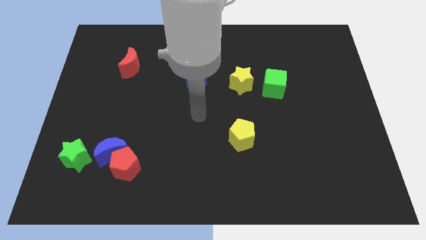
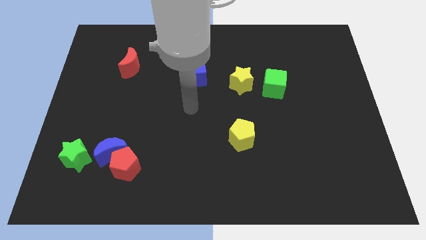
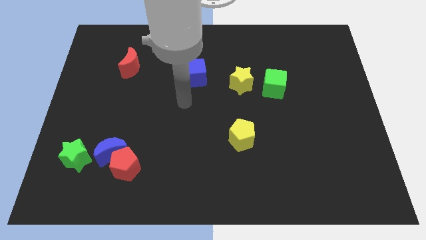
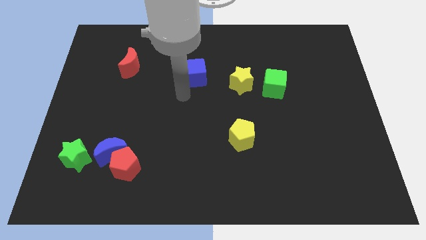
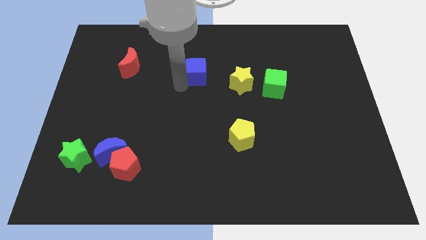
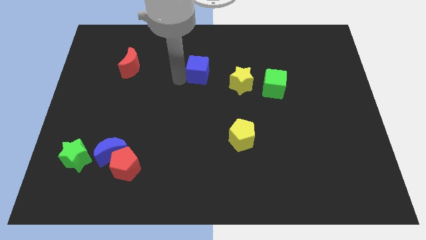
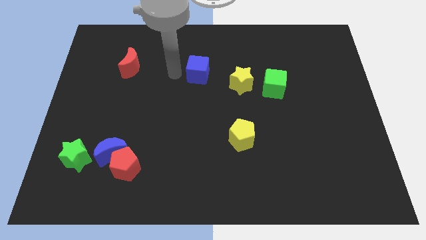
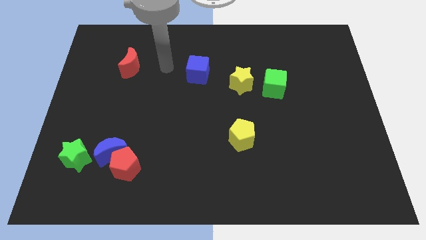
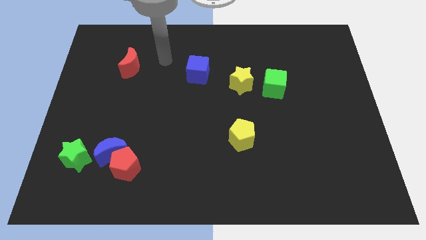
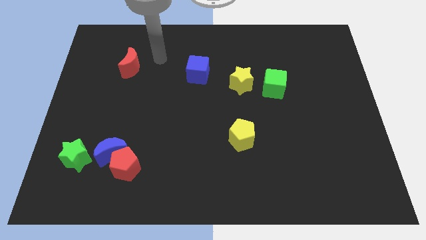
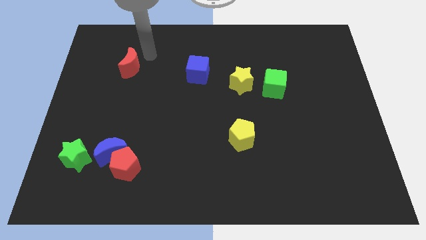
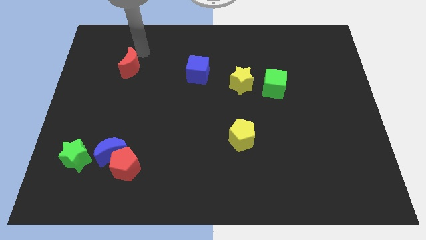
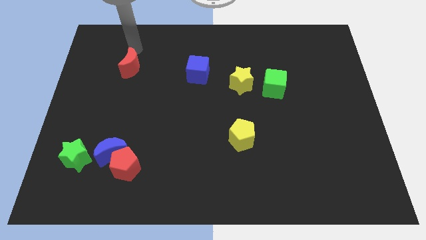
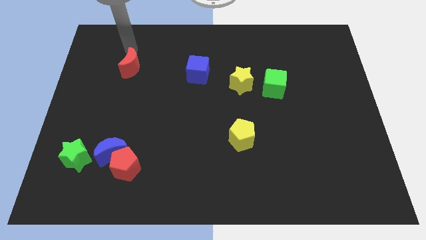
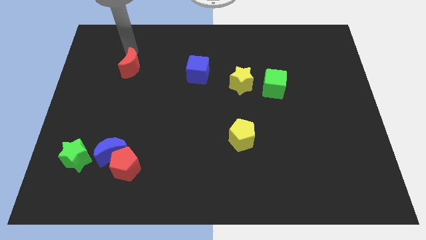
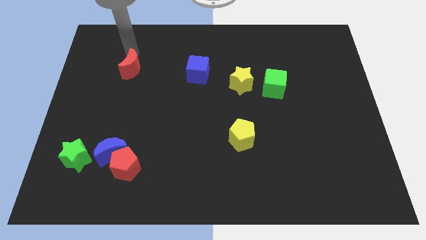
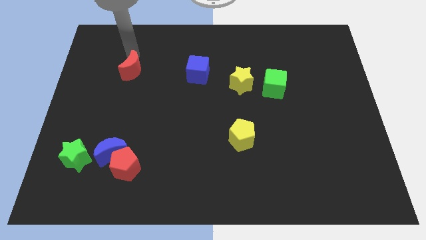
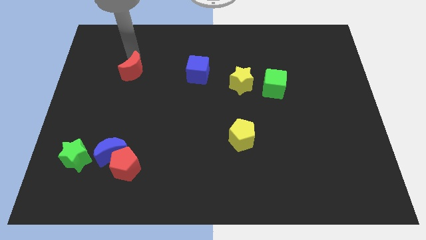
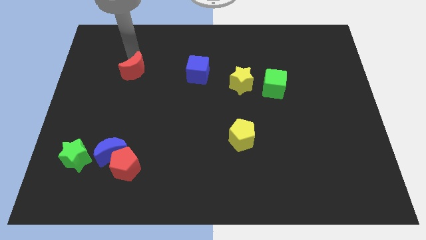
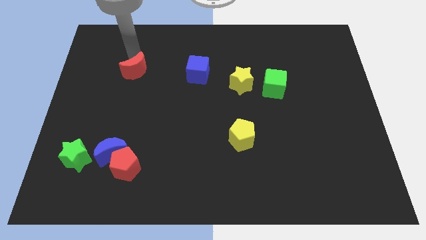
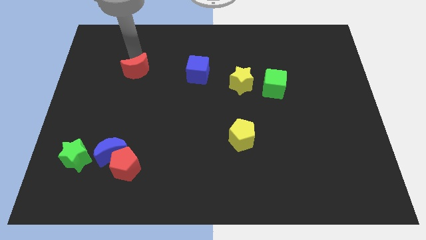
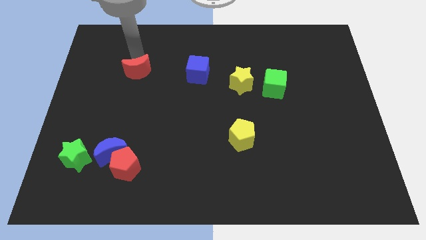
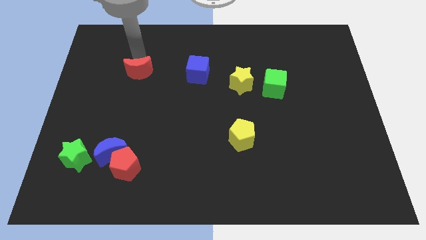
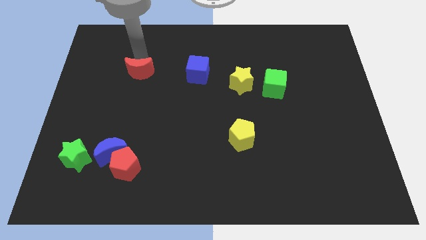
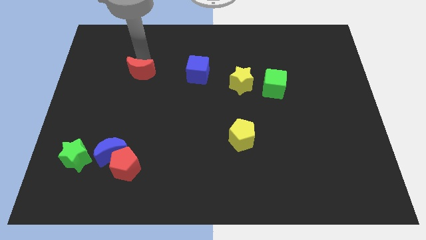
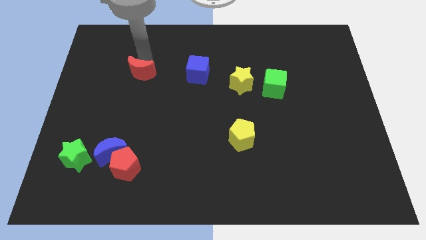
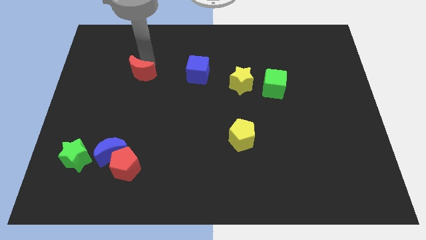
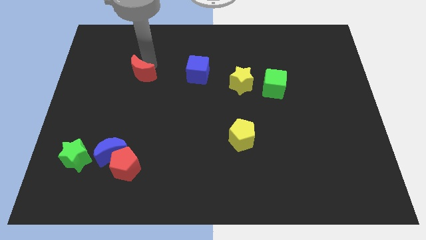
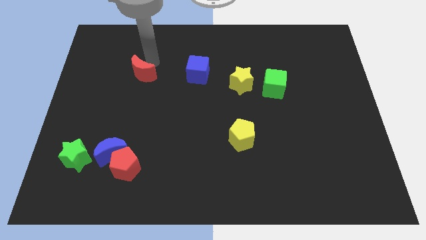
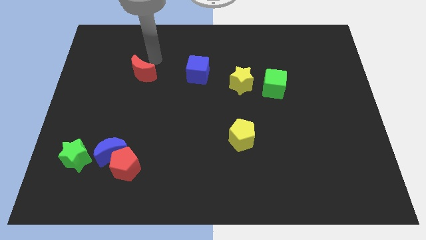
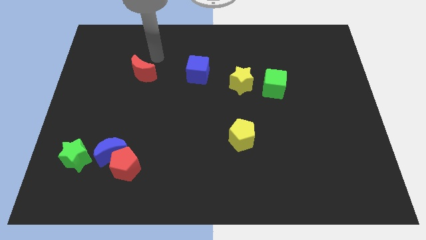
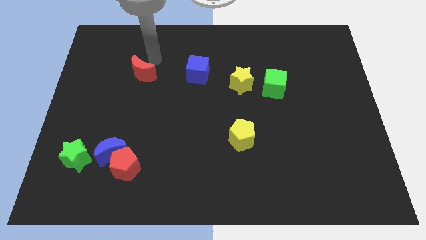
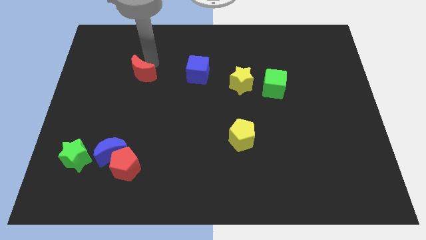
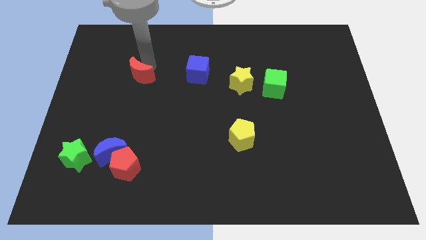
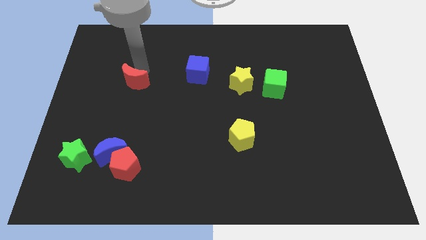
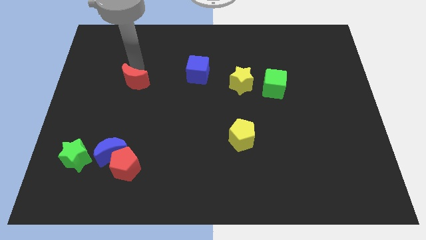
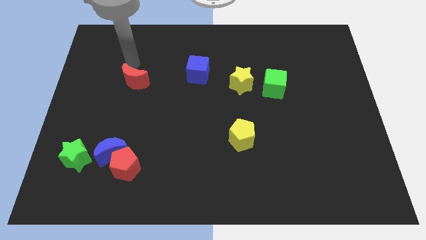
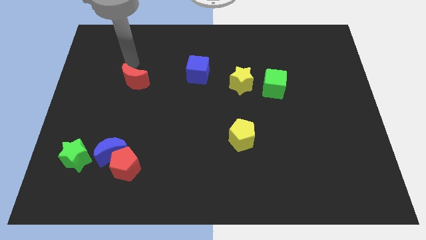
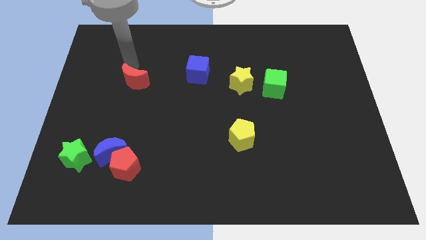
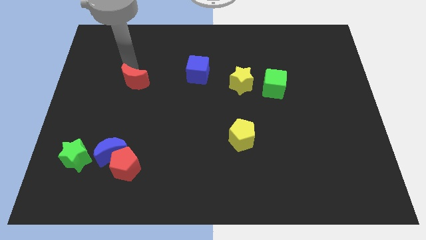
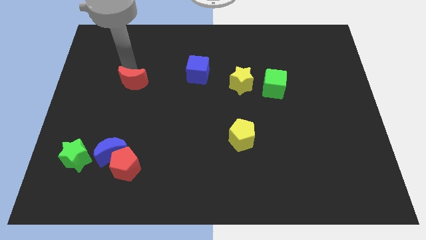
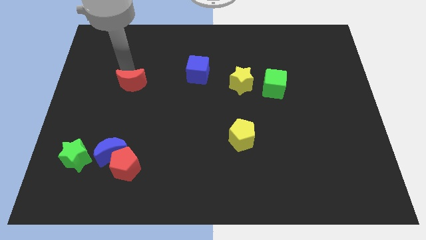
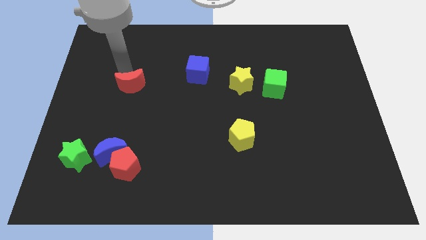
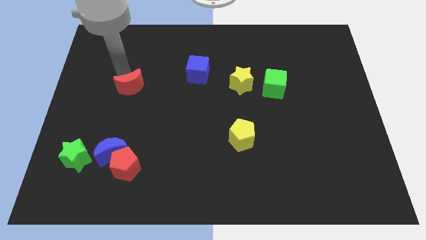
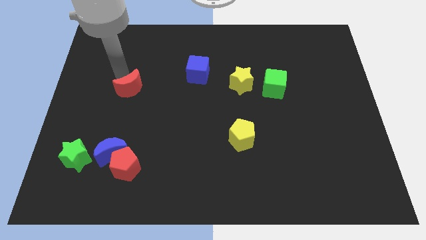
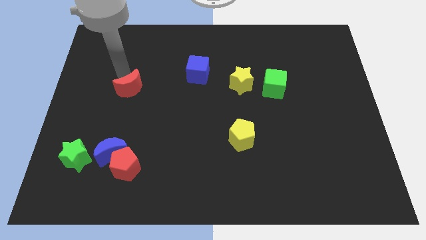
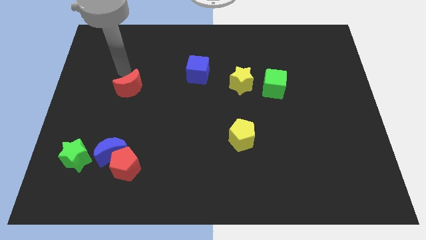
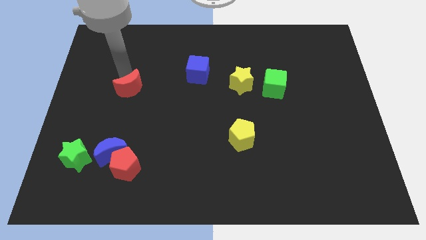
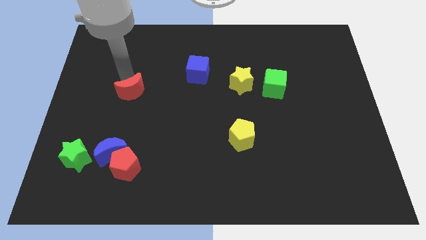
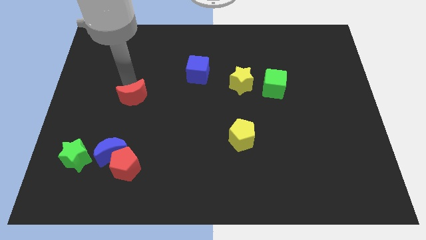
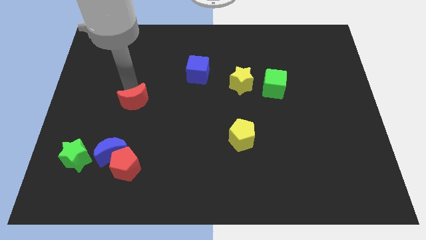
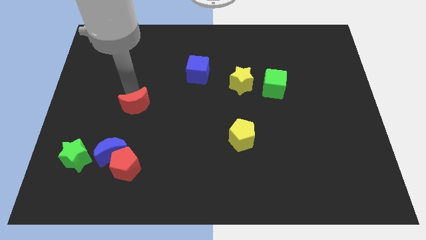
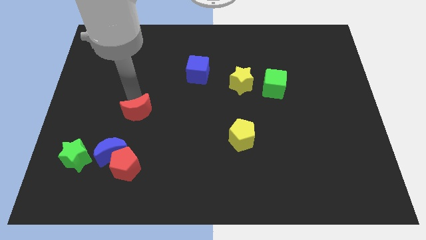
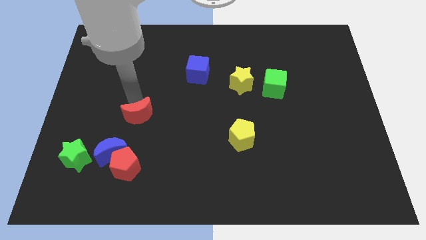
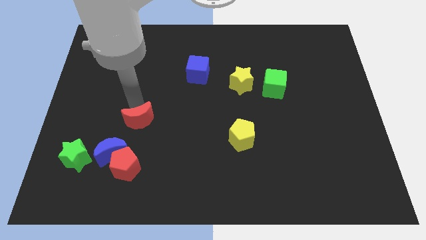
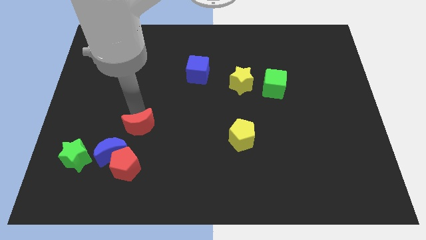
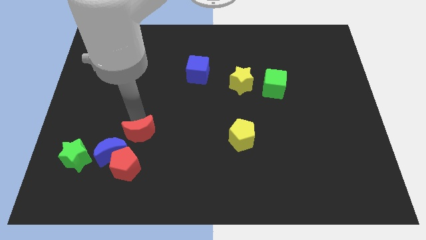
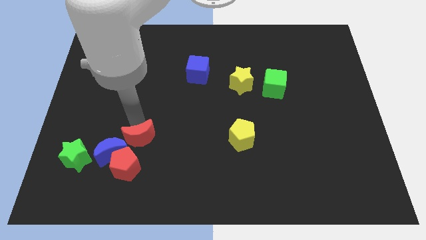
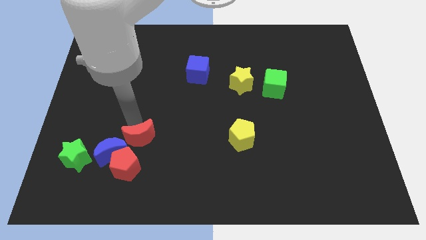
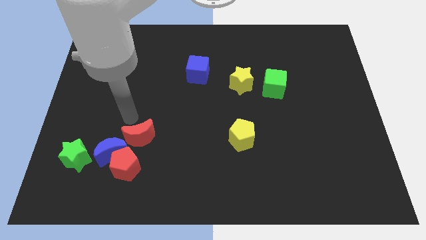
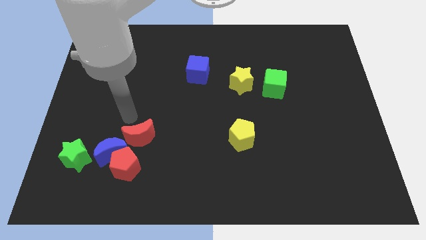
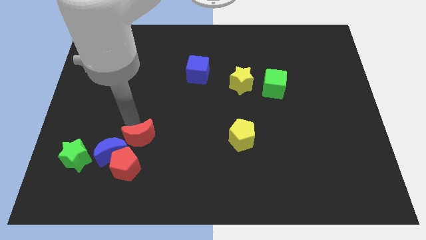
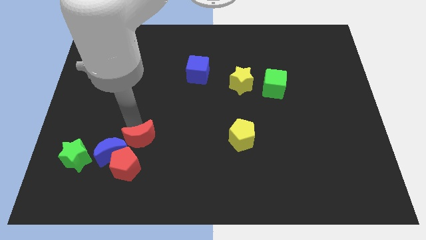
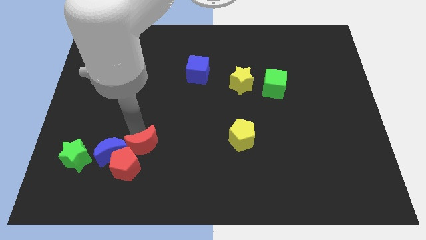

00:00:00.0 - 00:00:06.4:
move the red moon close to the red pentagon

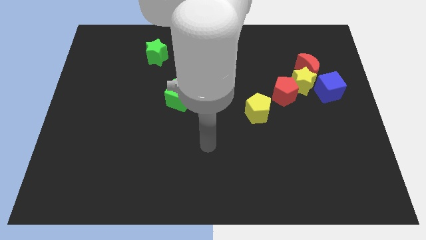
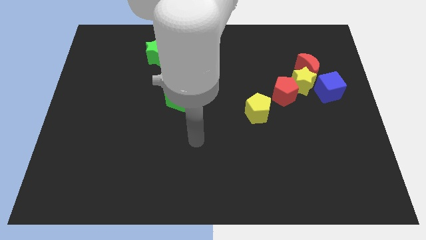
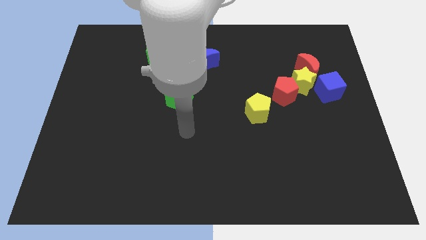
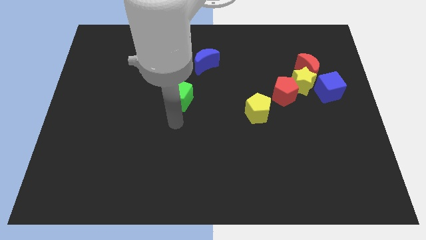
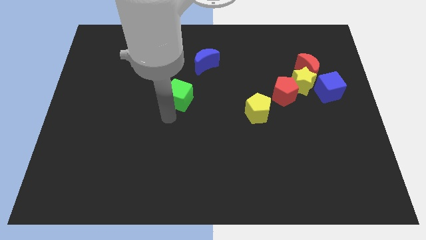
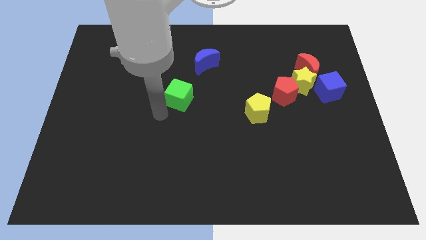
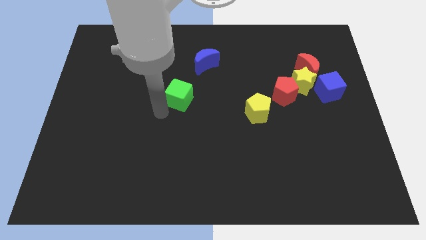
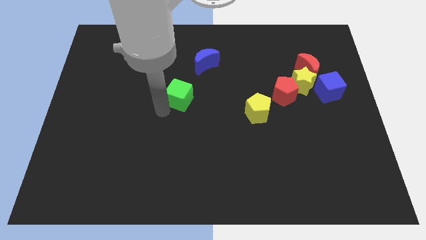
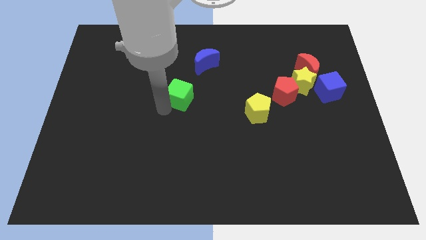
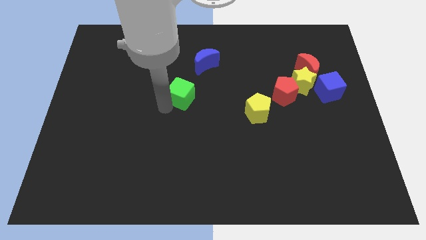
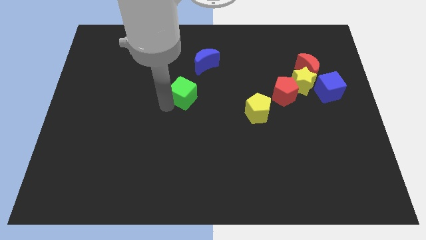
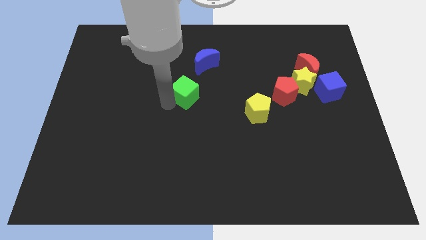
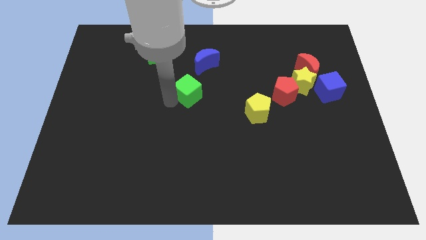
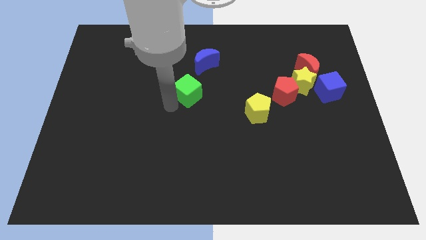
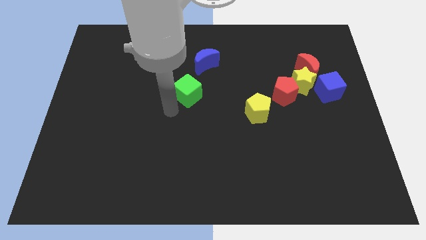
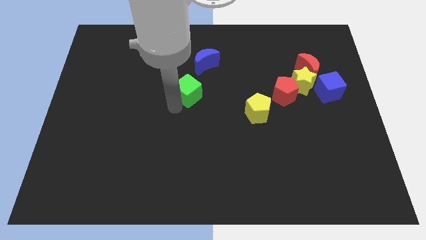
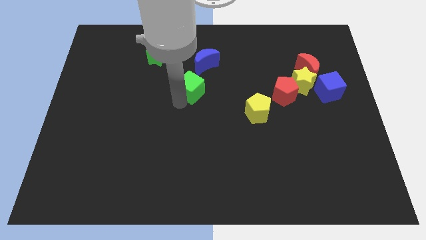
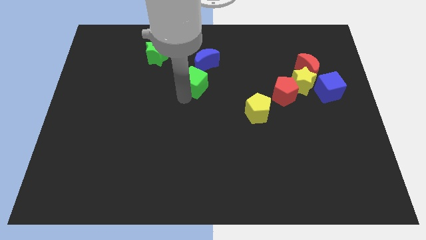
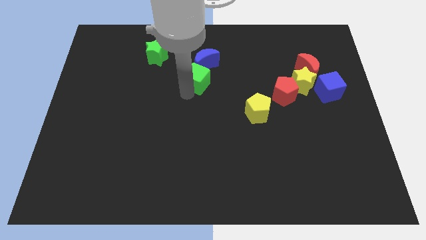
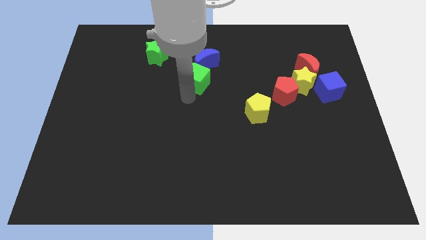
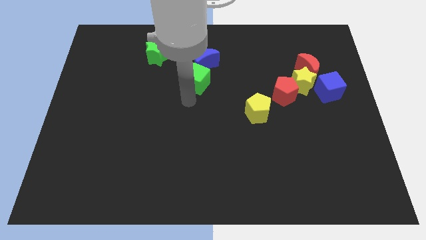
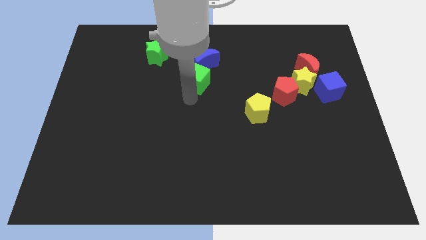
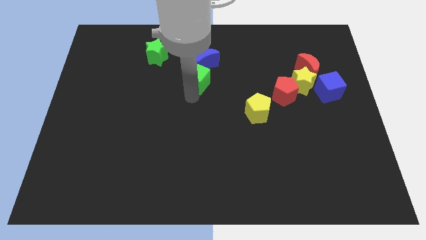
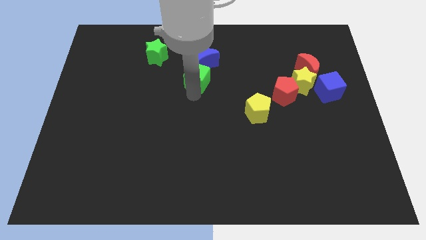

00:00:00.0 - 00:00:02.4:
move the green cube to the blue moon
